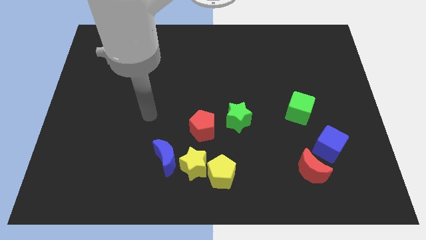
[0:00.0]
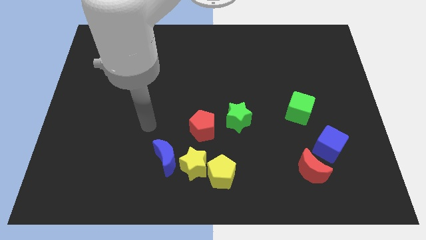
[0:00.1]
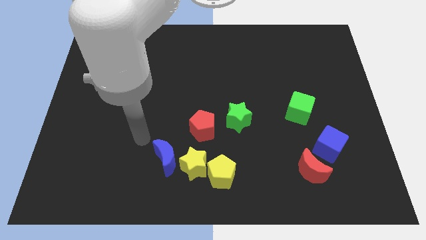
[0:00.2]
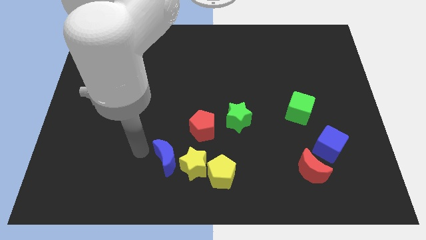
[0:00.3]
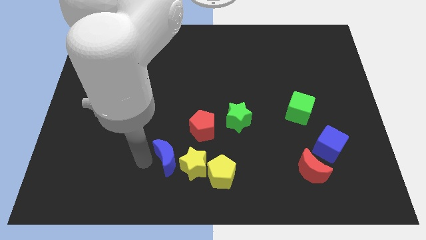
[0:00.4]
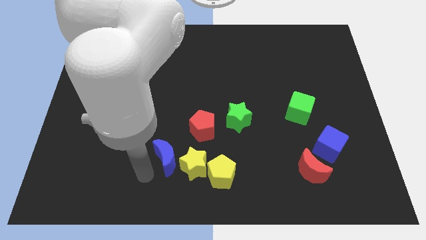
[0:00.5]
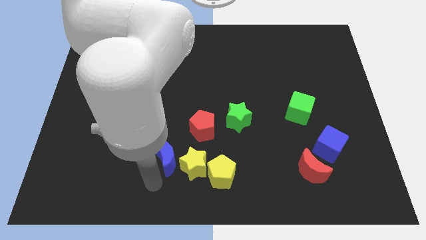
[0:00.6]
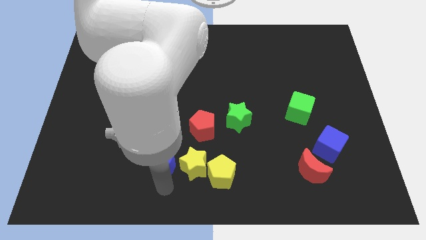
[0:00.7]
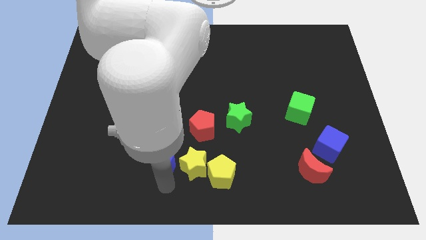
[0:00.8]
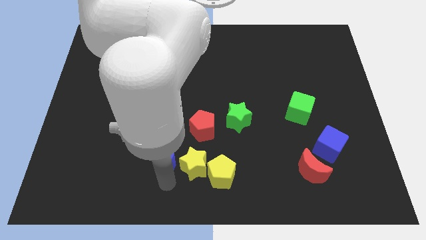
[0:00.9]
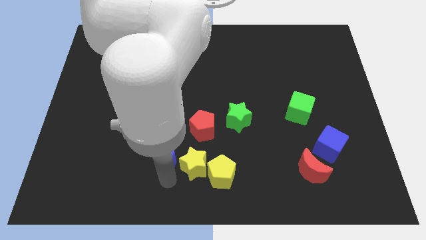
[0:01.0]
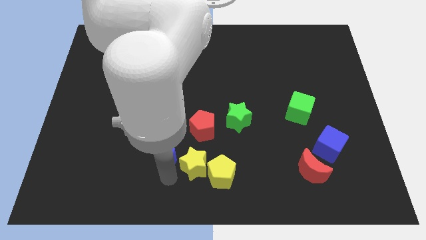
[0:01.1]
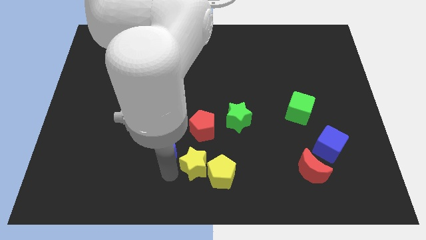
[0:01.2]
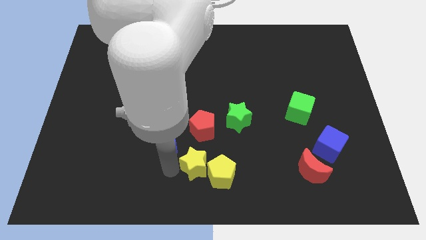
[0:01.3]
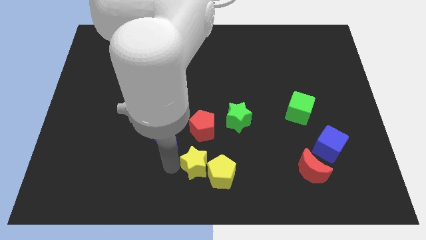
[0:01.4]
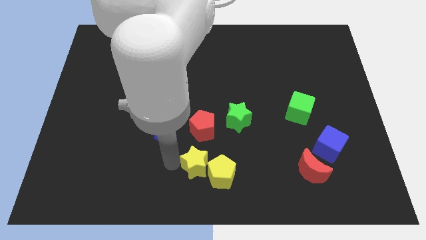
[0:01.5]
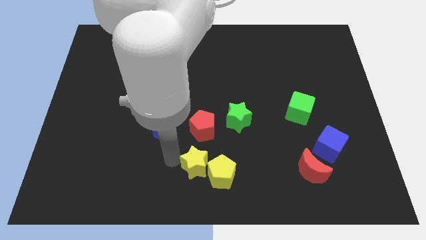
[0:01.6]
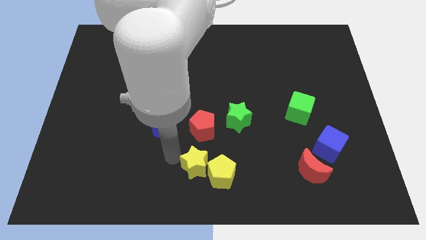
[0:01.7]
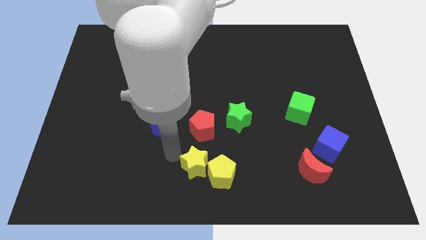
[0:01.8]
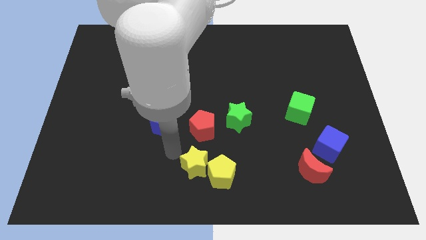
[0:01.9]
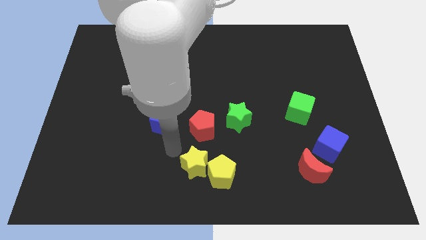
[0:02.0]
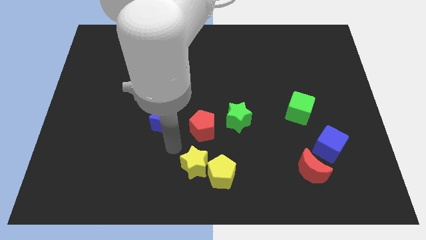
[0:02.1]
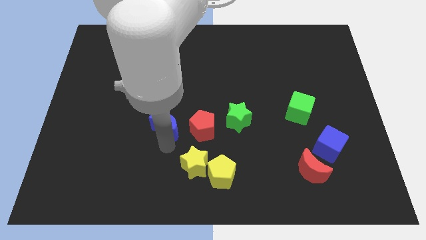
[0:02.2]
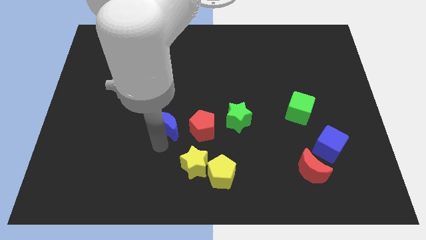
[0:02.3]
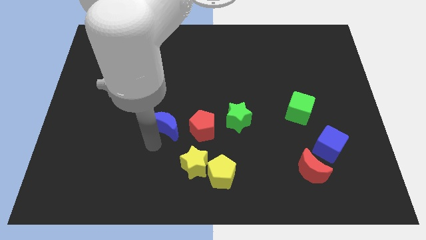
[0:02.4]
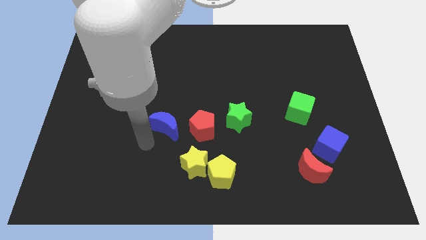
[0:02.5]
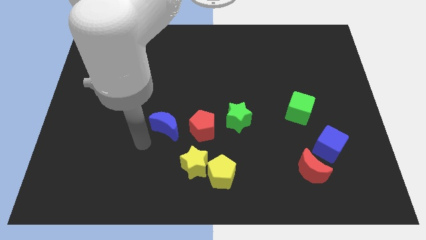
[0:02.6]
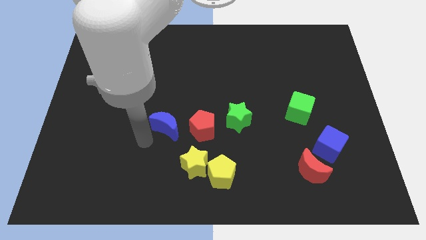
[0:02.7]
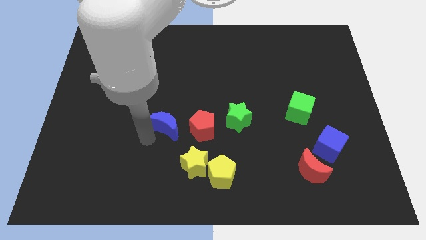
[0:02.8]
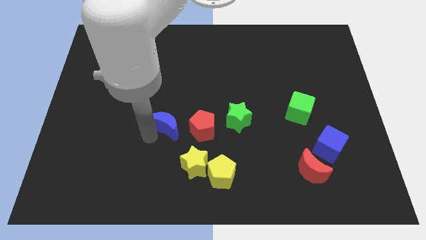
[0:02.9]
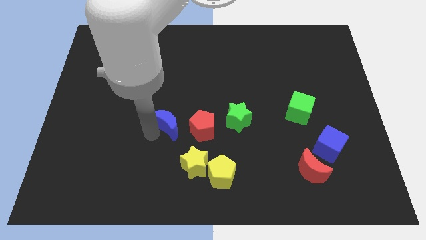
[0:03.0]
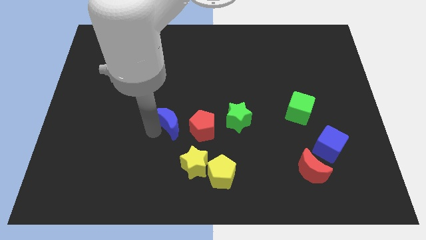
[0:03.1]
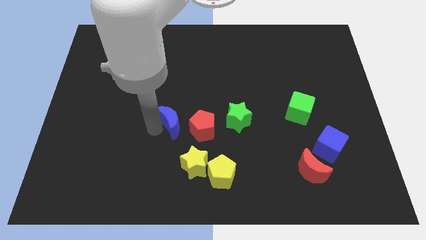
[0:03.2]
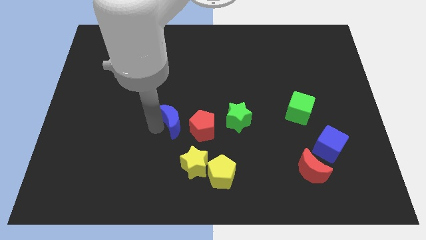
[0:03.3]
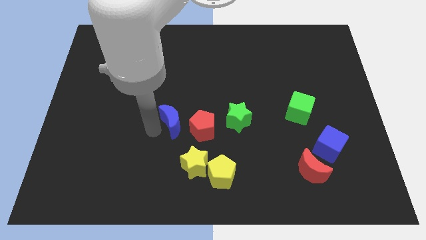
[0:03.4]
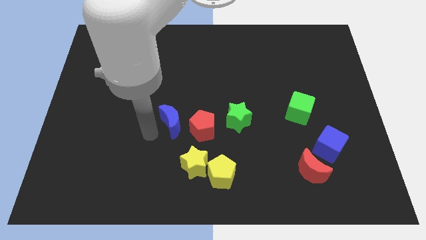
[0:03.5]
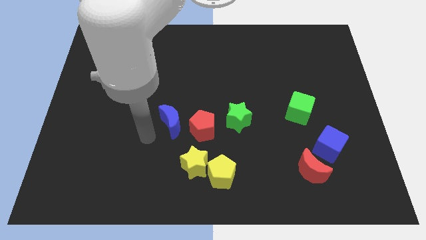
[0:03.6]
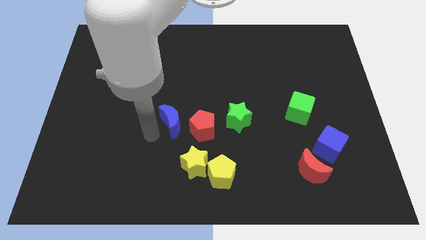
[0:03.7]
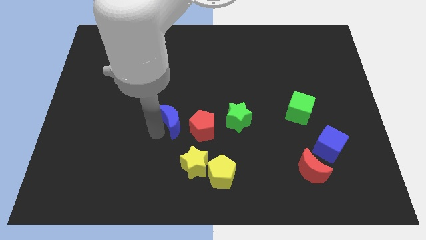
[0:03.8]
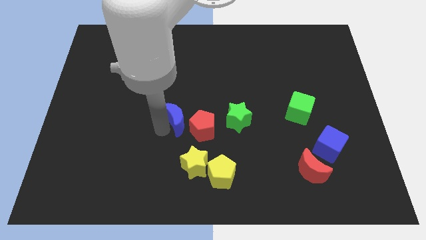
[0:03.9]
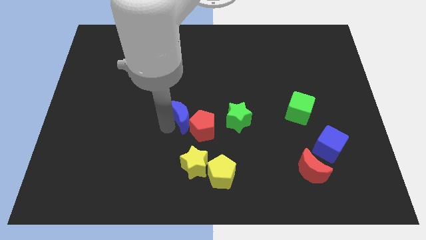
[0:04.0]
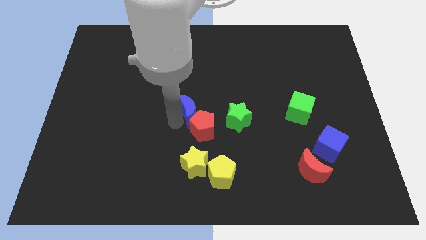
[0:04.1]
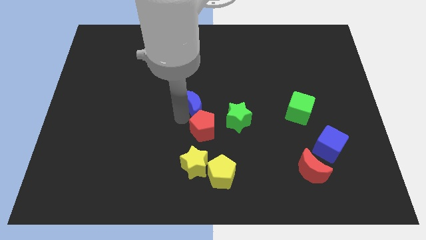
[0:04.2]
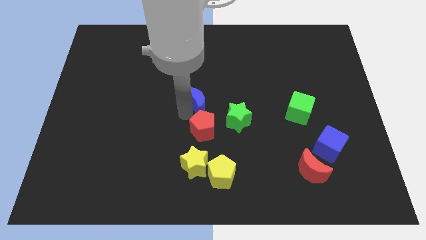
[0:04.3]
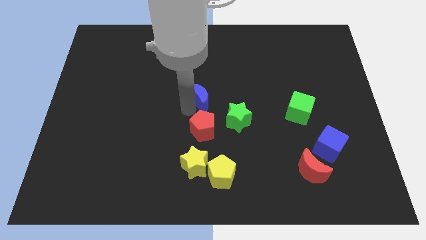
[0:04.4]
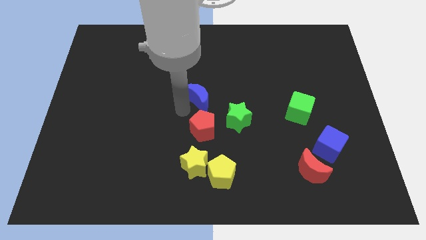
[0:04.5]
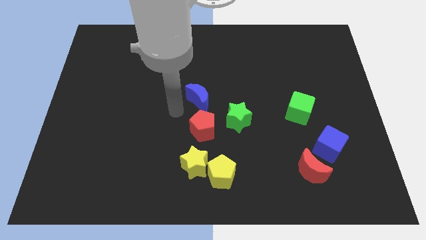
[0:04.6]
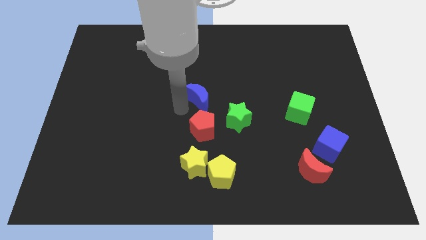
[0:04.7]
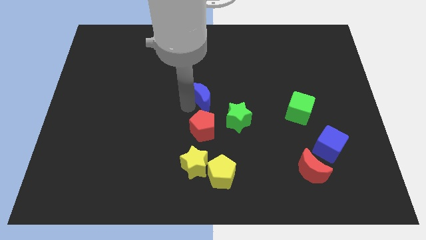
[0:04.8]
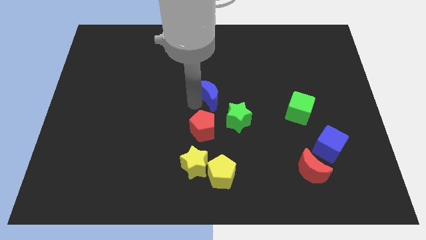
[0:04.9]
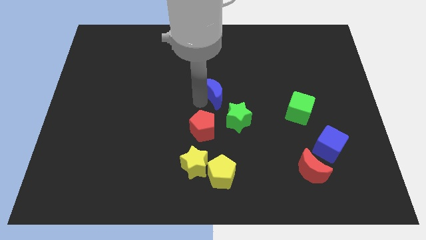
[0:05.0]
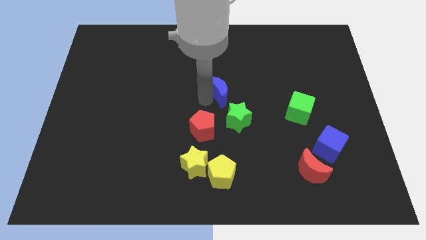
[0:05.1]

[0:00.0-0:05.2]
move the blue moon upwards and then to the right

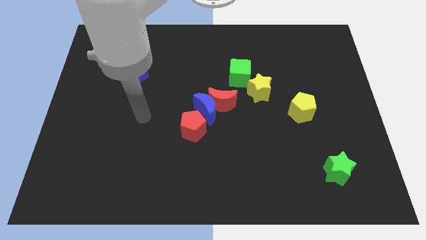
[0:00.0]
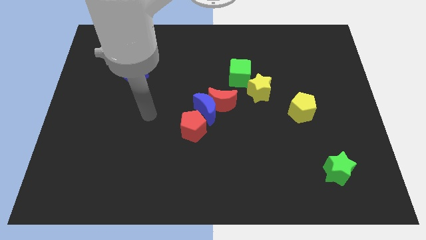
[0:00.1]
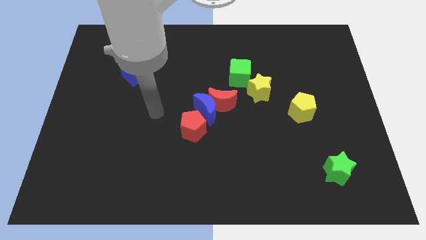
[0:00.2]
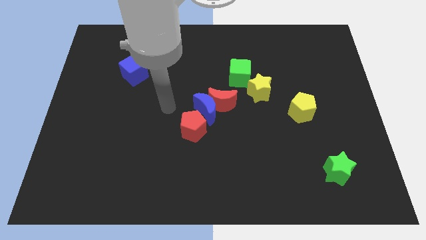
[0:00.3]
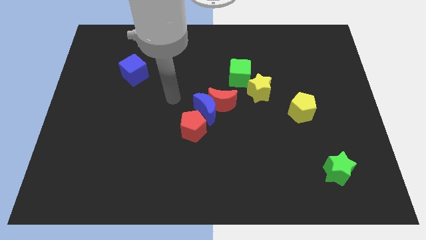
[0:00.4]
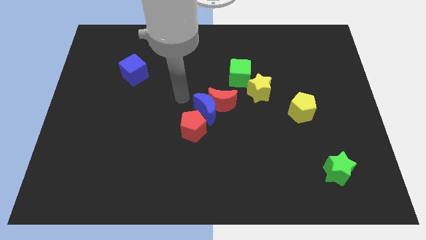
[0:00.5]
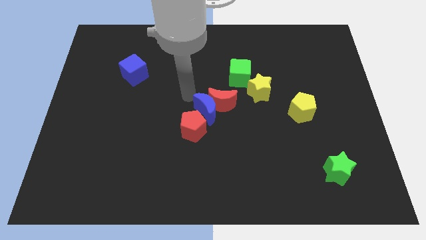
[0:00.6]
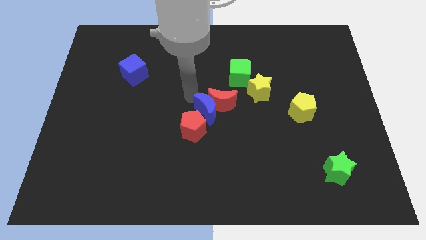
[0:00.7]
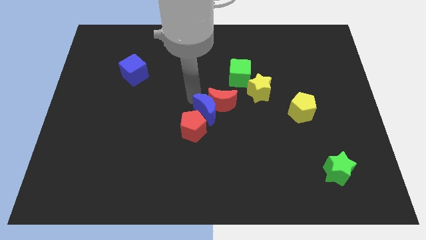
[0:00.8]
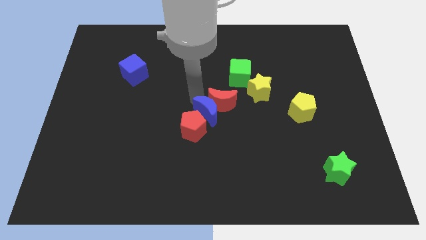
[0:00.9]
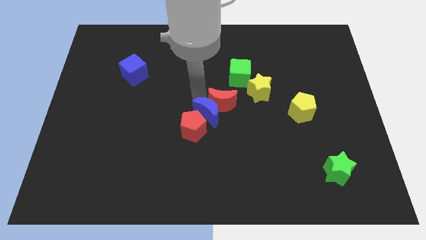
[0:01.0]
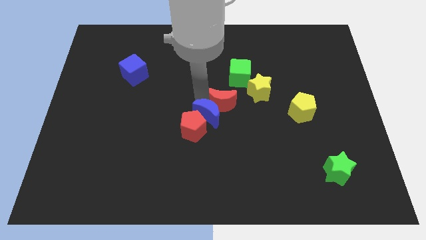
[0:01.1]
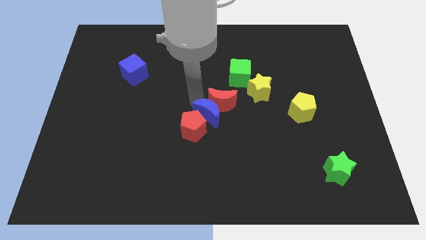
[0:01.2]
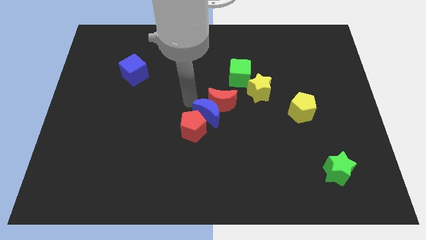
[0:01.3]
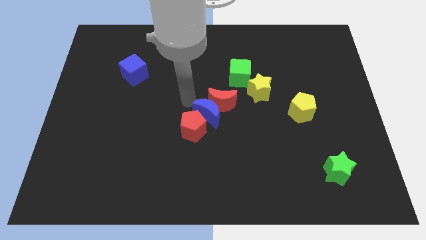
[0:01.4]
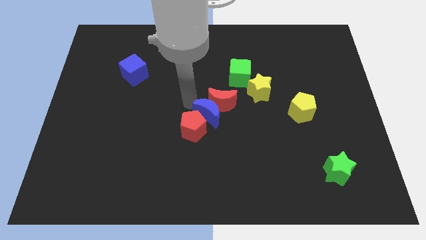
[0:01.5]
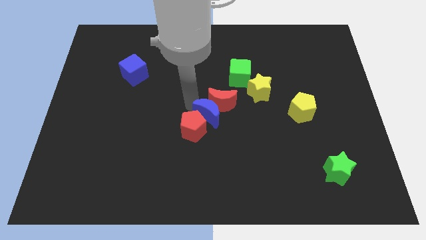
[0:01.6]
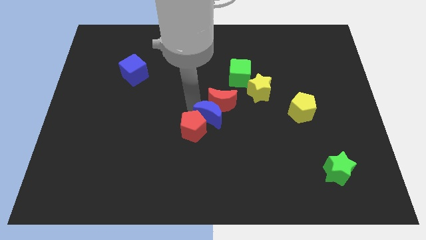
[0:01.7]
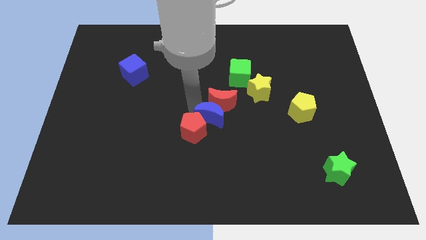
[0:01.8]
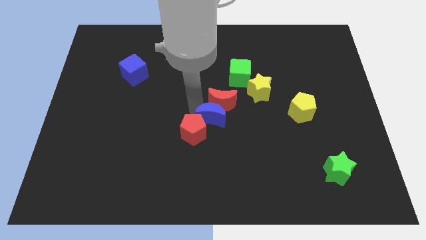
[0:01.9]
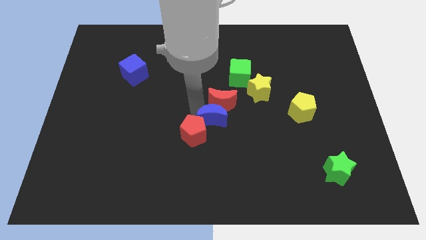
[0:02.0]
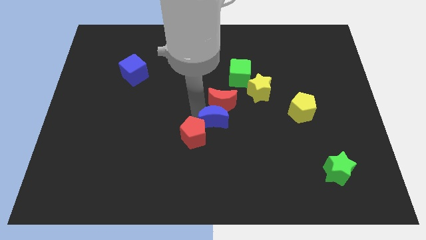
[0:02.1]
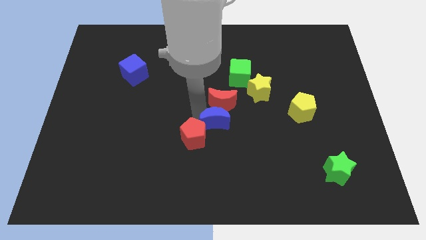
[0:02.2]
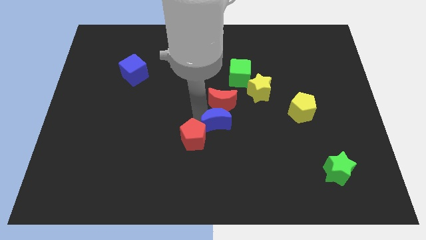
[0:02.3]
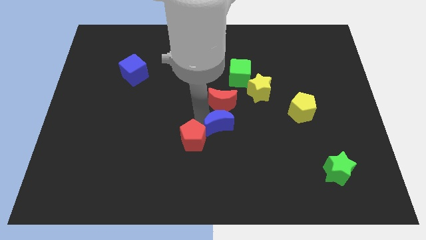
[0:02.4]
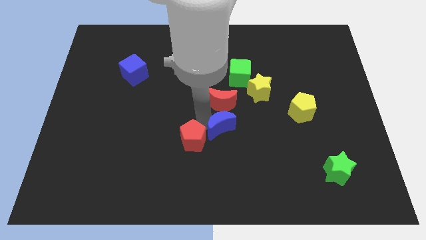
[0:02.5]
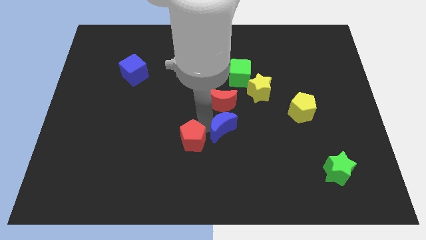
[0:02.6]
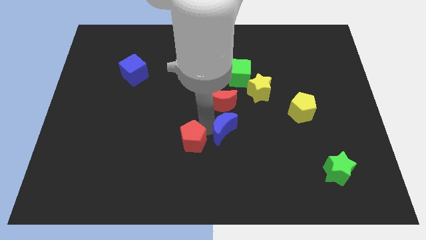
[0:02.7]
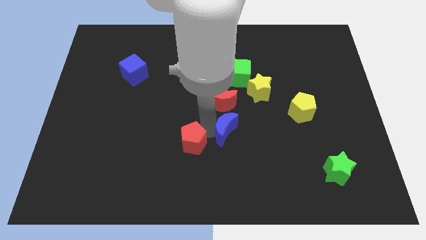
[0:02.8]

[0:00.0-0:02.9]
slightly slide the blue moon downwards and right
